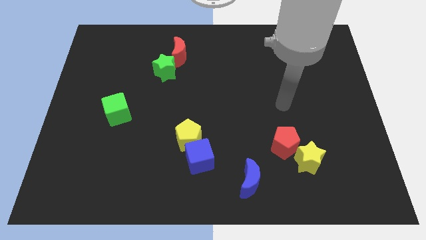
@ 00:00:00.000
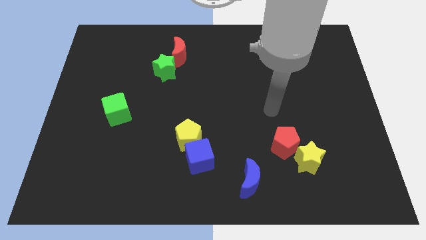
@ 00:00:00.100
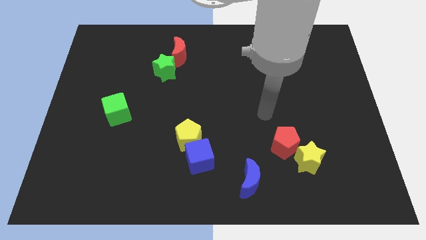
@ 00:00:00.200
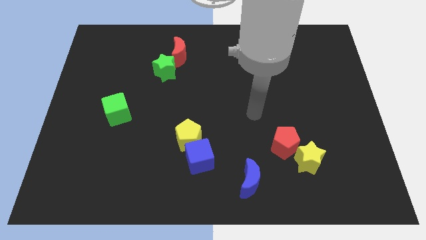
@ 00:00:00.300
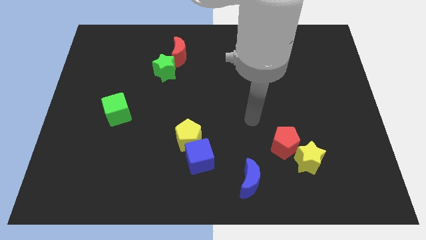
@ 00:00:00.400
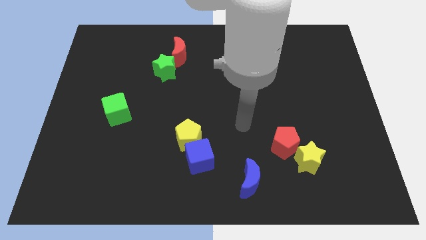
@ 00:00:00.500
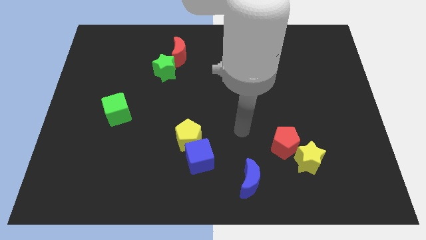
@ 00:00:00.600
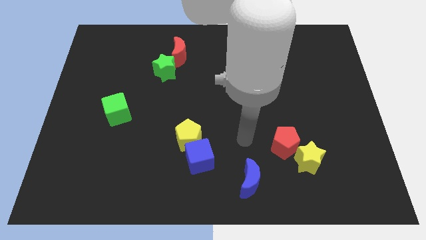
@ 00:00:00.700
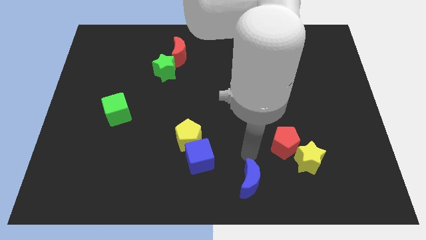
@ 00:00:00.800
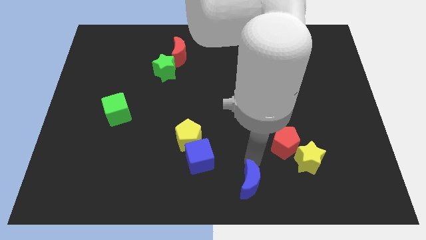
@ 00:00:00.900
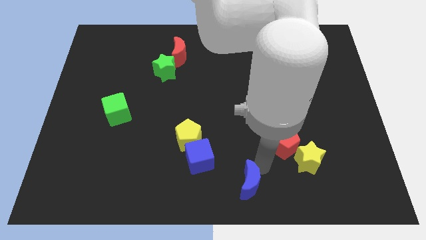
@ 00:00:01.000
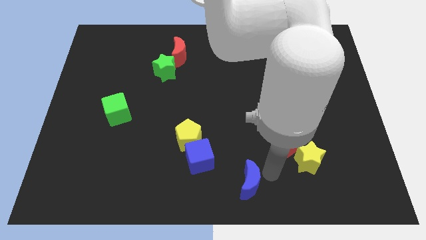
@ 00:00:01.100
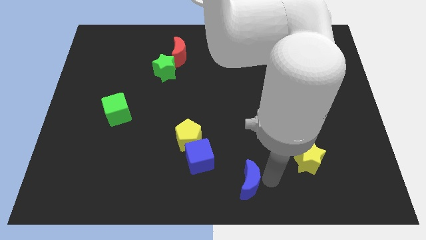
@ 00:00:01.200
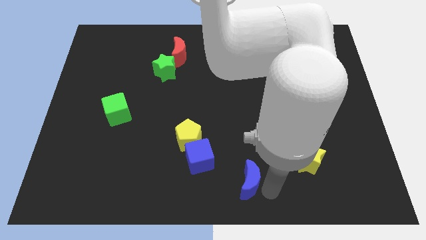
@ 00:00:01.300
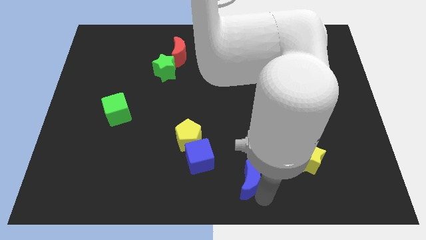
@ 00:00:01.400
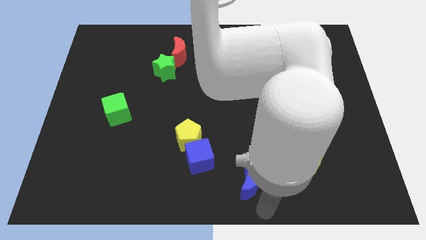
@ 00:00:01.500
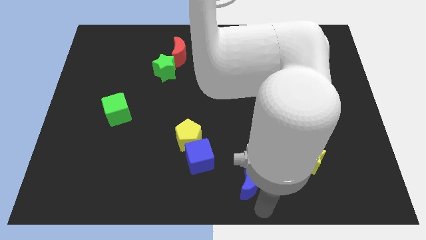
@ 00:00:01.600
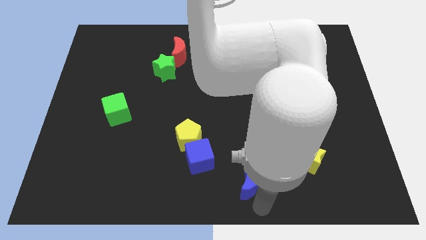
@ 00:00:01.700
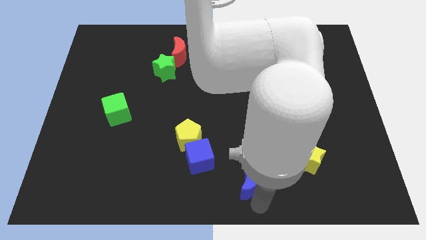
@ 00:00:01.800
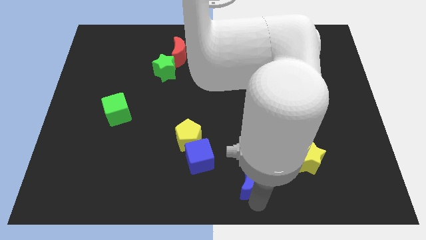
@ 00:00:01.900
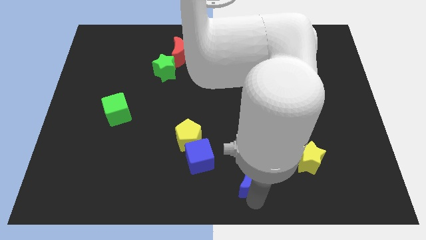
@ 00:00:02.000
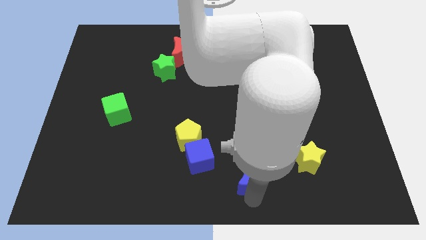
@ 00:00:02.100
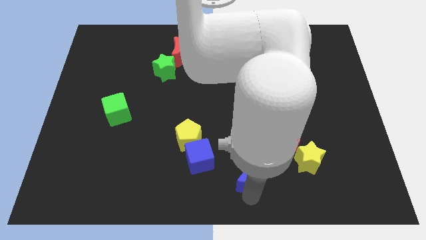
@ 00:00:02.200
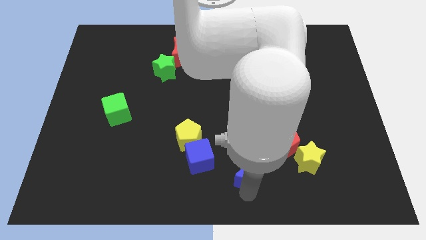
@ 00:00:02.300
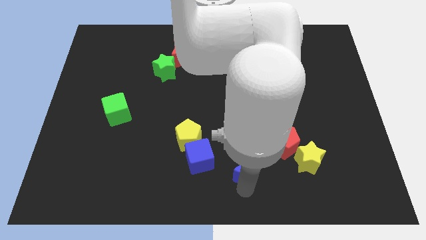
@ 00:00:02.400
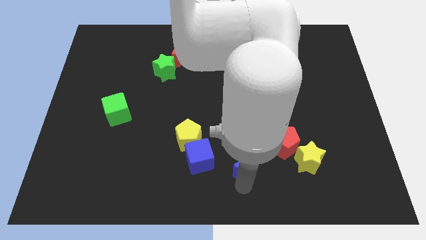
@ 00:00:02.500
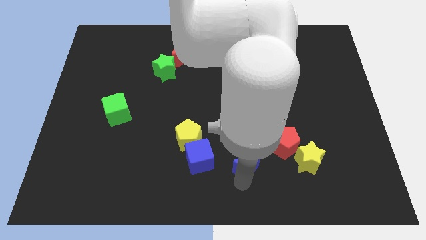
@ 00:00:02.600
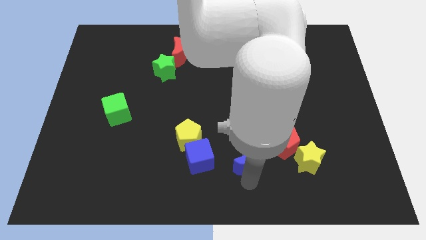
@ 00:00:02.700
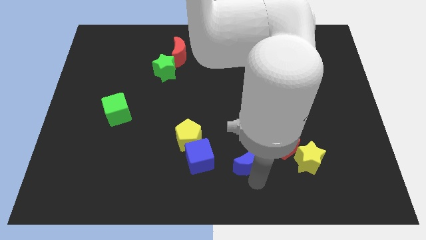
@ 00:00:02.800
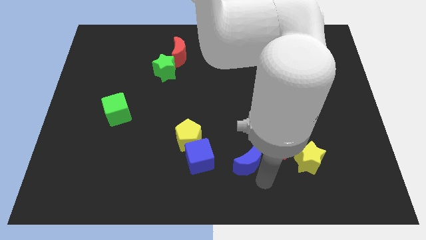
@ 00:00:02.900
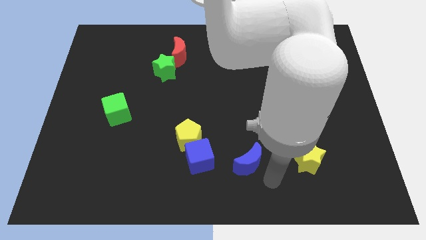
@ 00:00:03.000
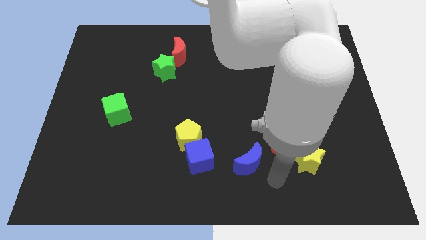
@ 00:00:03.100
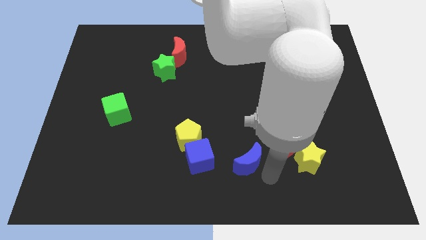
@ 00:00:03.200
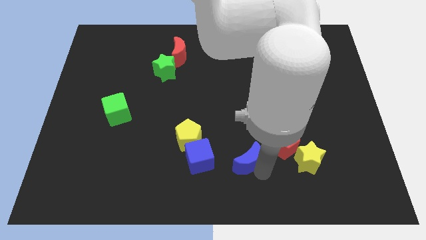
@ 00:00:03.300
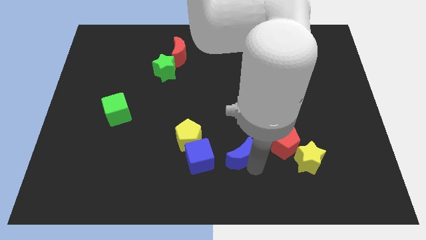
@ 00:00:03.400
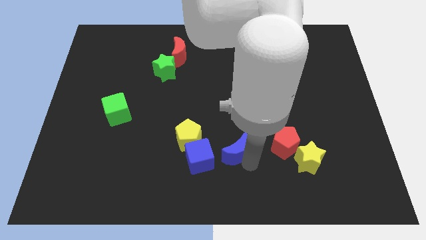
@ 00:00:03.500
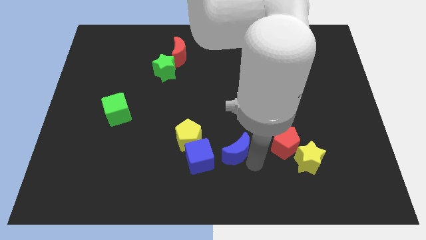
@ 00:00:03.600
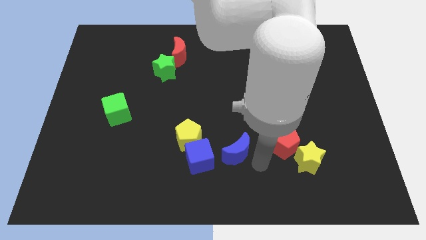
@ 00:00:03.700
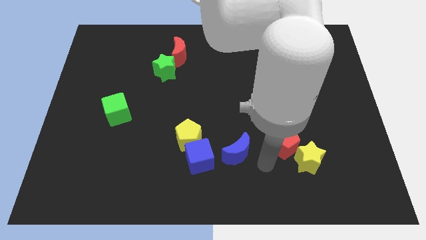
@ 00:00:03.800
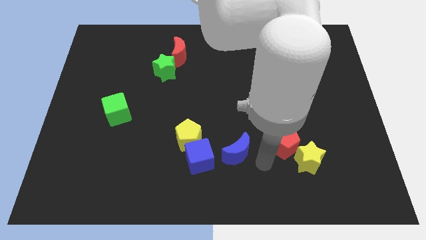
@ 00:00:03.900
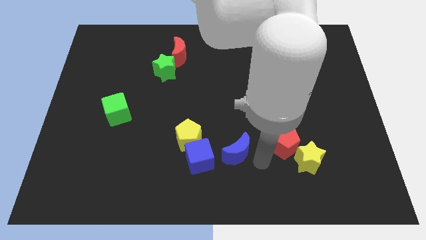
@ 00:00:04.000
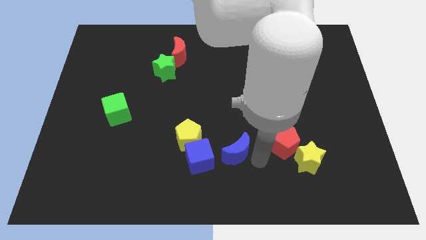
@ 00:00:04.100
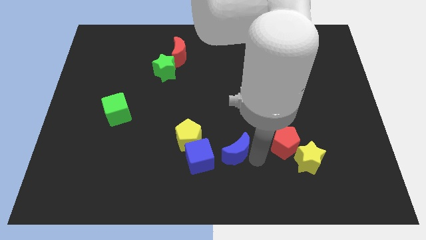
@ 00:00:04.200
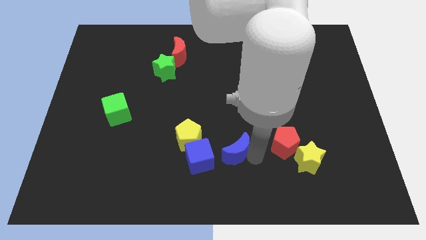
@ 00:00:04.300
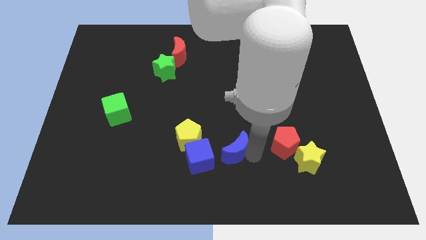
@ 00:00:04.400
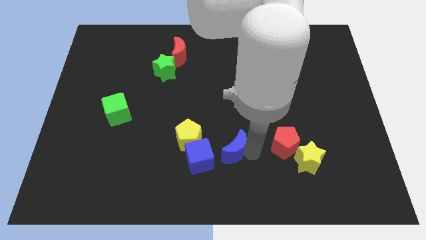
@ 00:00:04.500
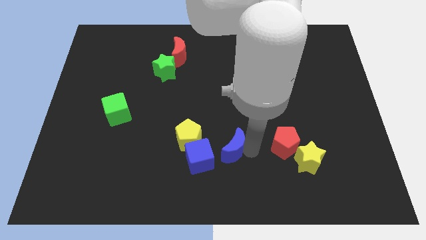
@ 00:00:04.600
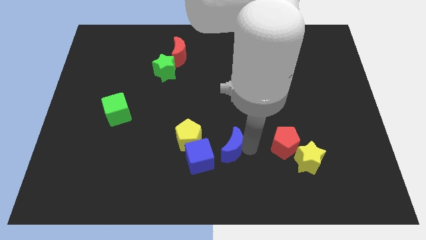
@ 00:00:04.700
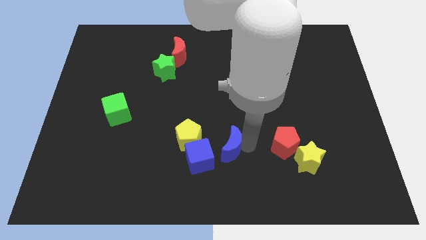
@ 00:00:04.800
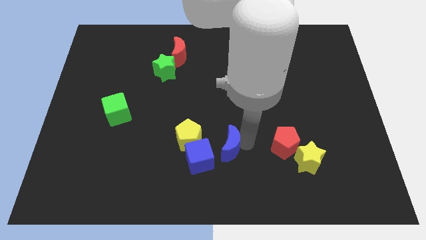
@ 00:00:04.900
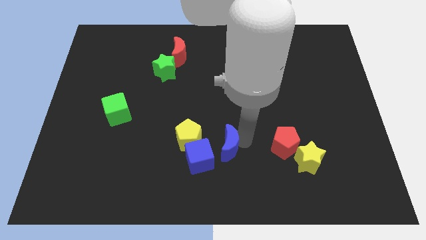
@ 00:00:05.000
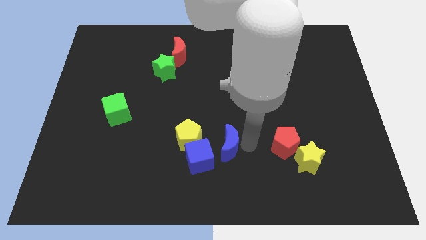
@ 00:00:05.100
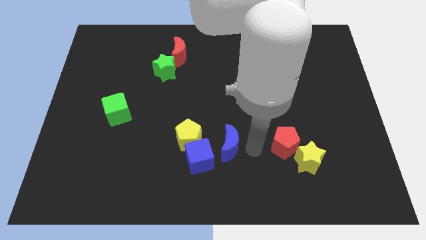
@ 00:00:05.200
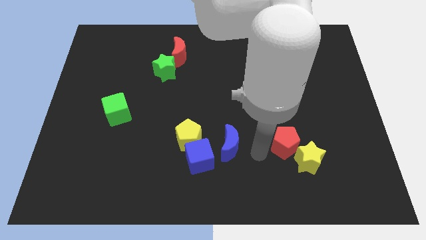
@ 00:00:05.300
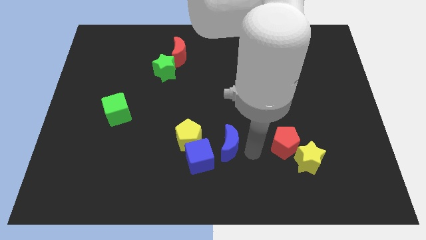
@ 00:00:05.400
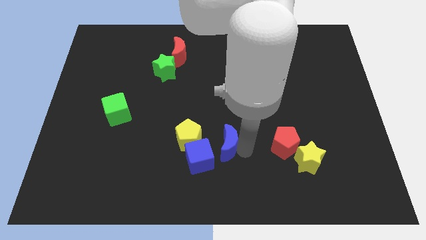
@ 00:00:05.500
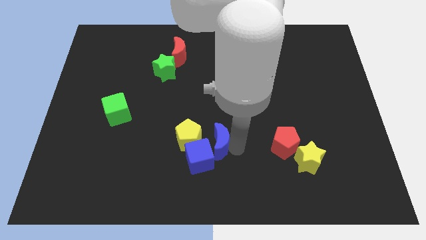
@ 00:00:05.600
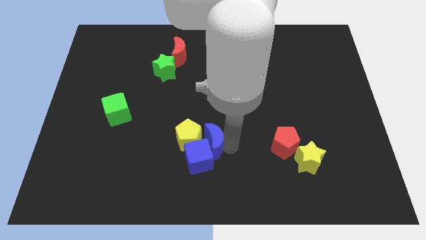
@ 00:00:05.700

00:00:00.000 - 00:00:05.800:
put the blue moon next to the yellow pentagon

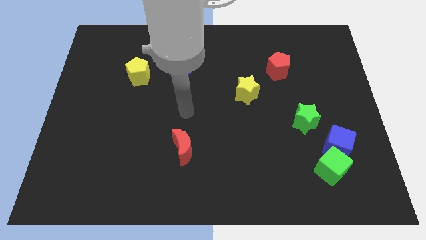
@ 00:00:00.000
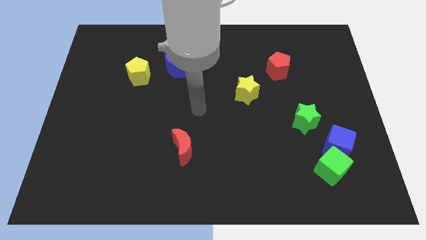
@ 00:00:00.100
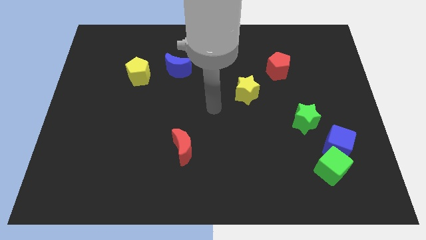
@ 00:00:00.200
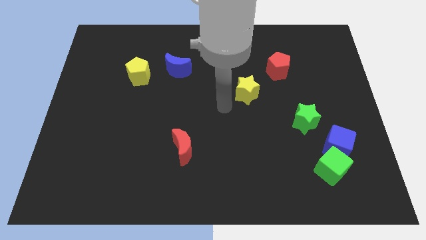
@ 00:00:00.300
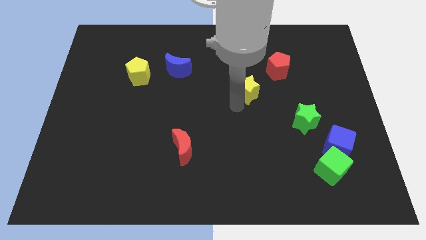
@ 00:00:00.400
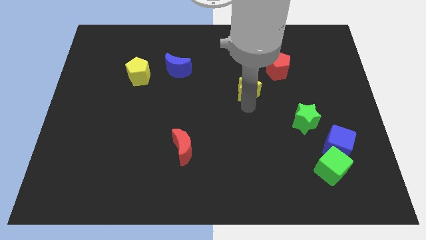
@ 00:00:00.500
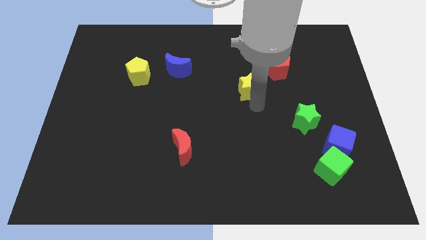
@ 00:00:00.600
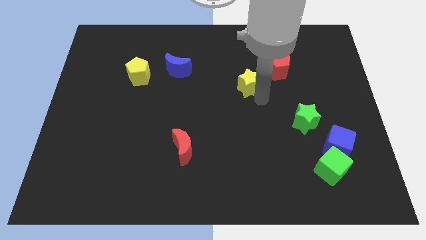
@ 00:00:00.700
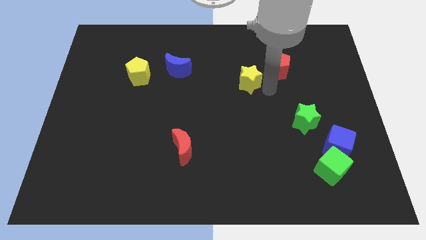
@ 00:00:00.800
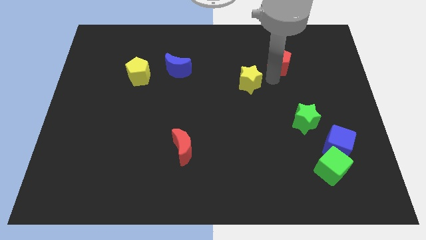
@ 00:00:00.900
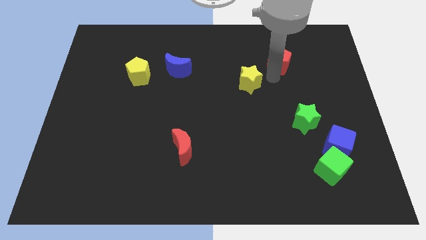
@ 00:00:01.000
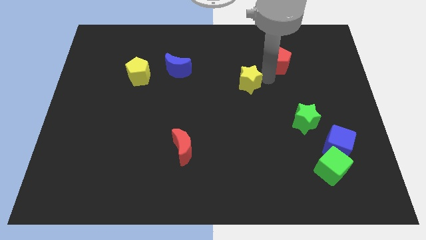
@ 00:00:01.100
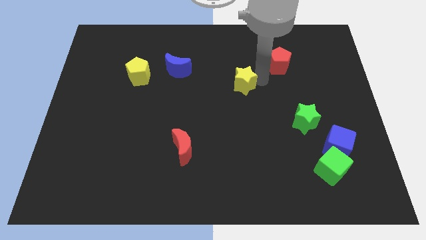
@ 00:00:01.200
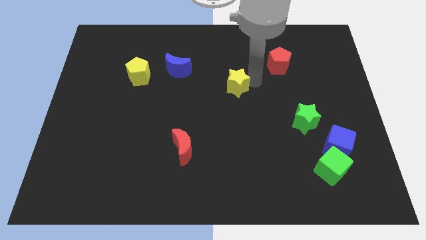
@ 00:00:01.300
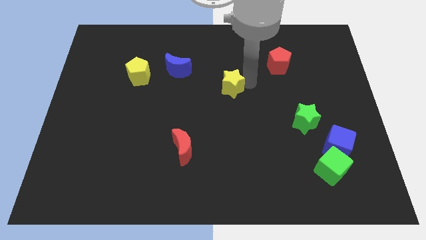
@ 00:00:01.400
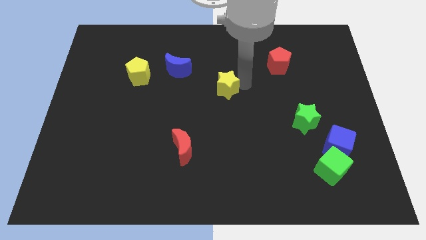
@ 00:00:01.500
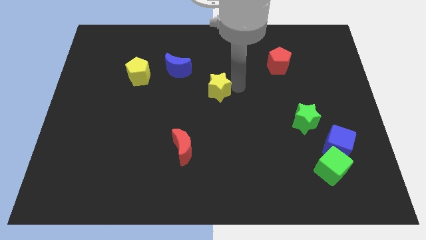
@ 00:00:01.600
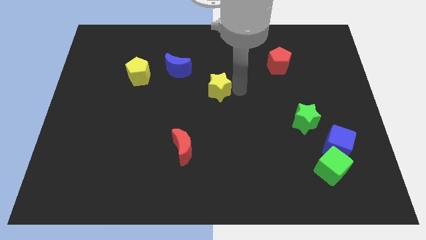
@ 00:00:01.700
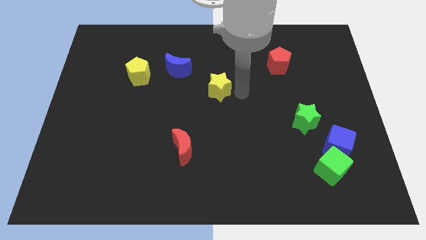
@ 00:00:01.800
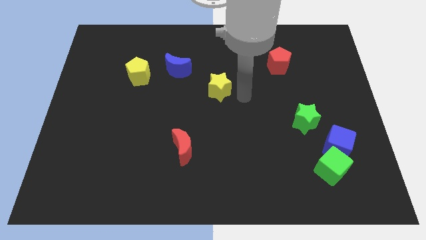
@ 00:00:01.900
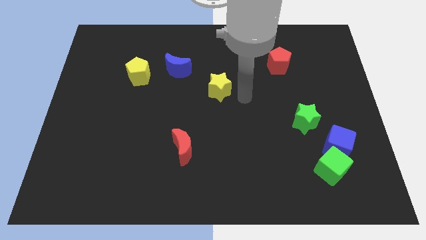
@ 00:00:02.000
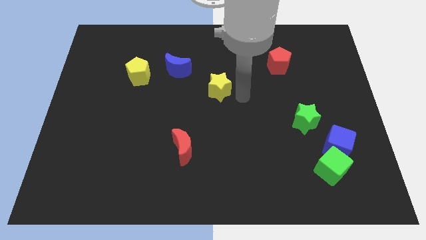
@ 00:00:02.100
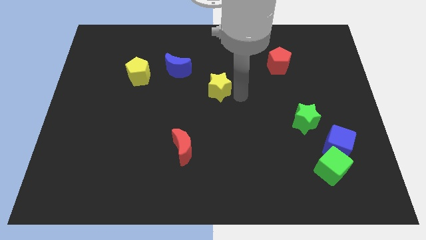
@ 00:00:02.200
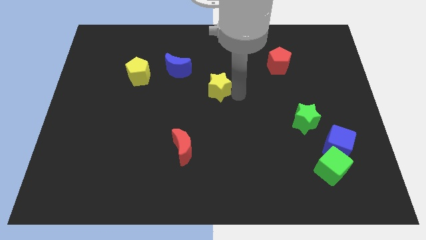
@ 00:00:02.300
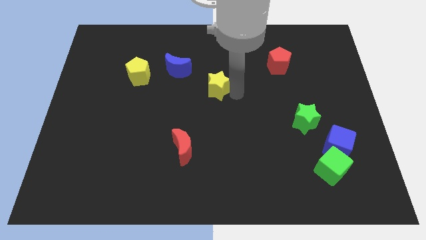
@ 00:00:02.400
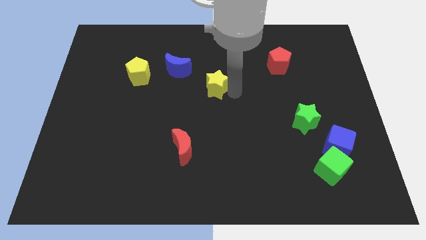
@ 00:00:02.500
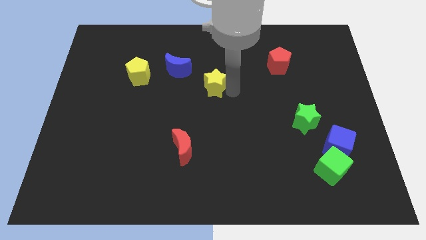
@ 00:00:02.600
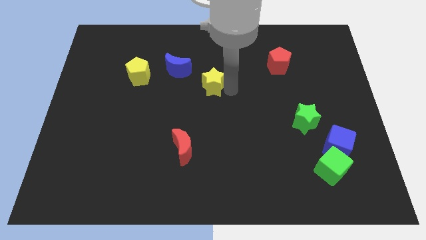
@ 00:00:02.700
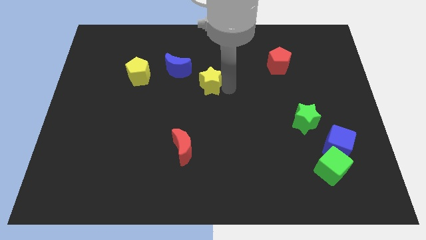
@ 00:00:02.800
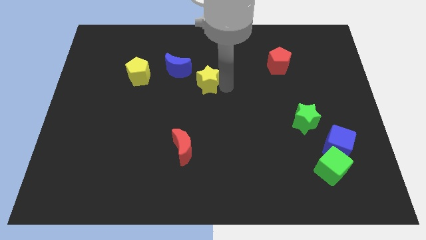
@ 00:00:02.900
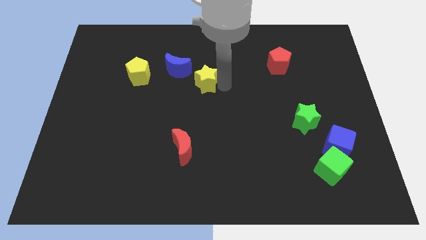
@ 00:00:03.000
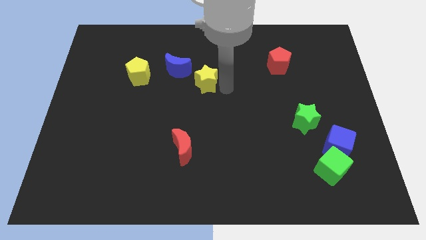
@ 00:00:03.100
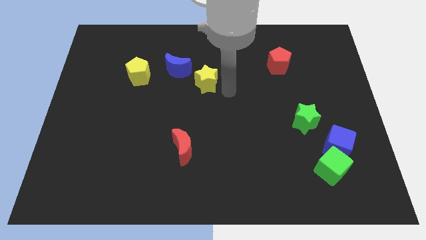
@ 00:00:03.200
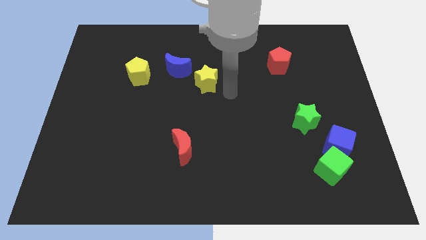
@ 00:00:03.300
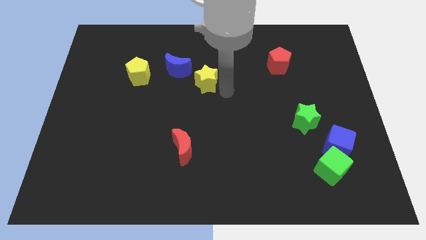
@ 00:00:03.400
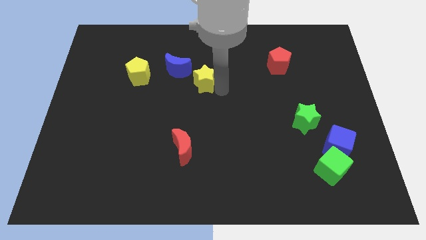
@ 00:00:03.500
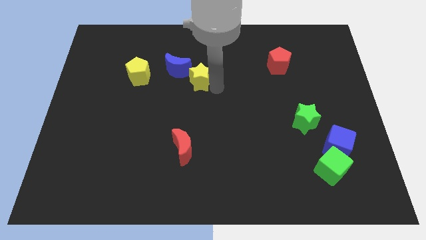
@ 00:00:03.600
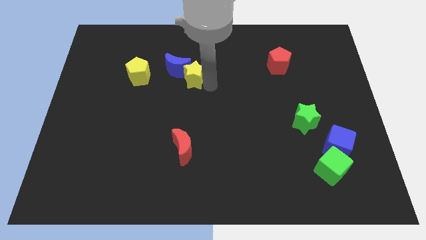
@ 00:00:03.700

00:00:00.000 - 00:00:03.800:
move the yellow star towards the blue moon
